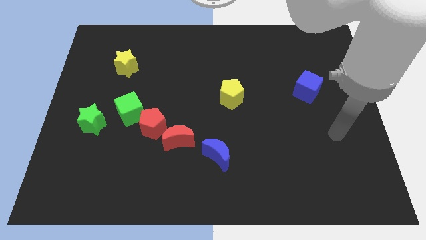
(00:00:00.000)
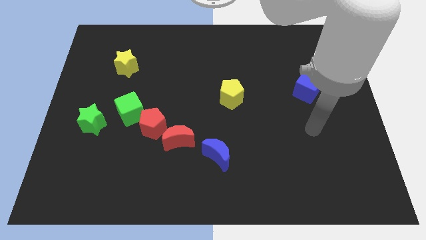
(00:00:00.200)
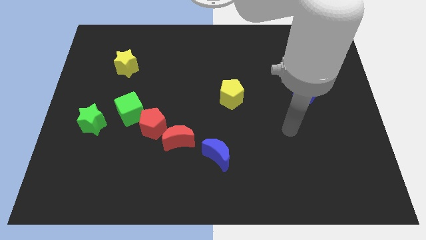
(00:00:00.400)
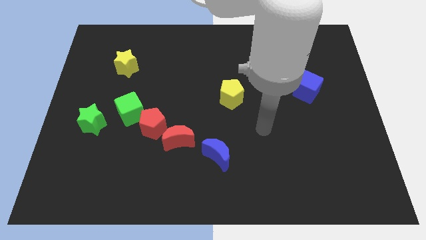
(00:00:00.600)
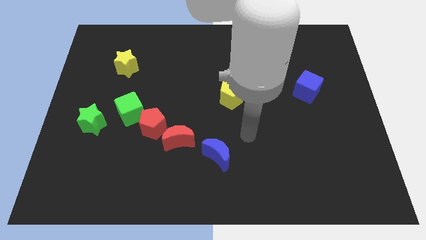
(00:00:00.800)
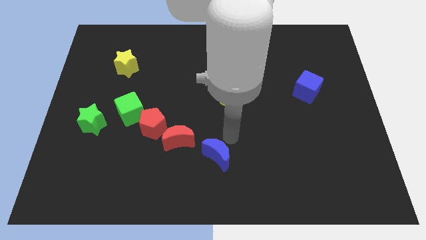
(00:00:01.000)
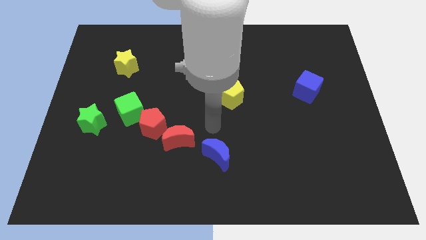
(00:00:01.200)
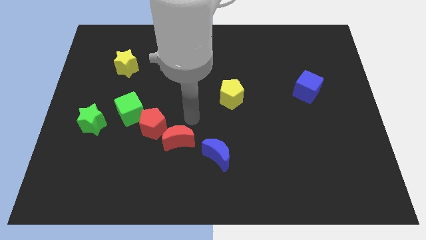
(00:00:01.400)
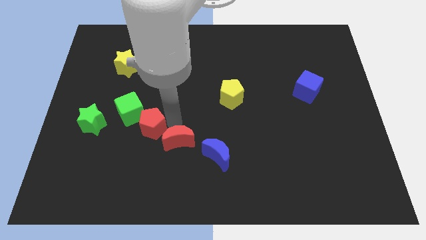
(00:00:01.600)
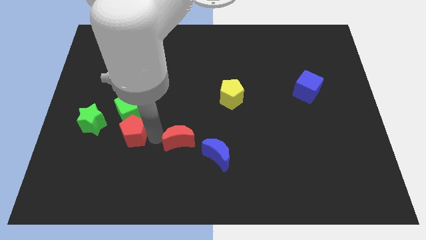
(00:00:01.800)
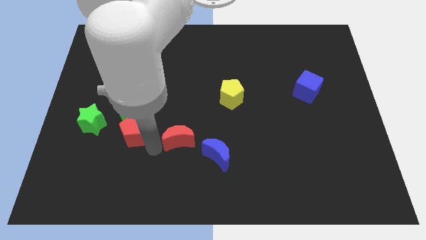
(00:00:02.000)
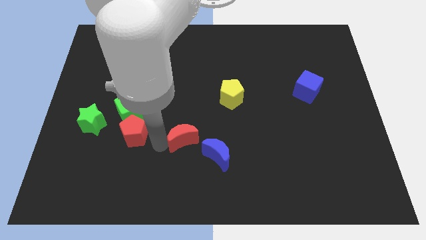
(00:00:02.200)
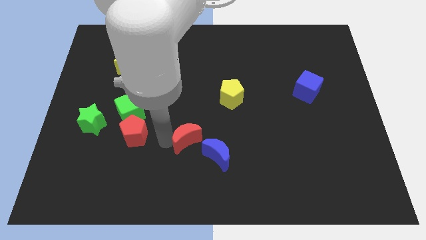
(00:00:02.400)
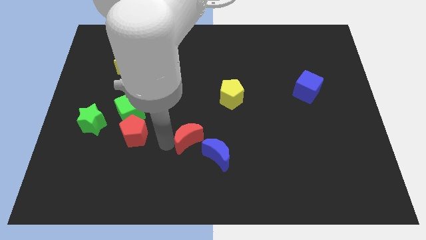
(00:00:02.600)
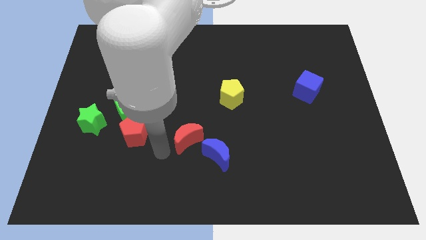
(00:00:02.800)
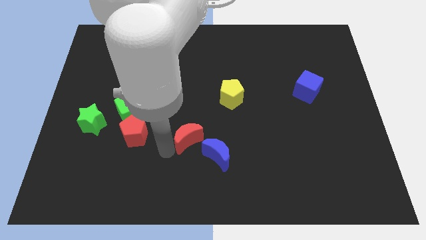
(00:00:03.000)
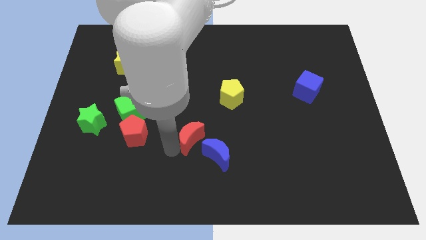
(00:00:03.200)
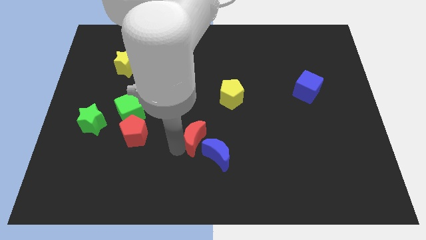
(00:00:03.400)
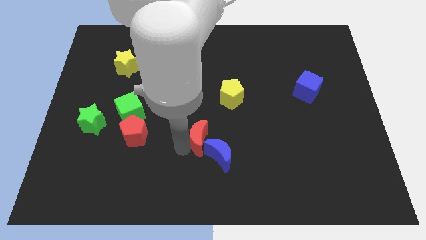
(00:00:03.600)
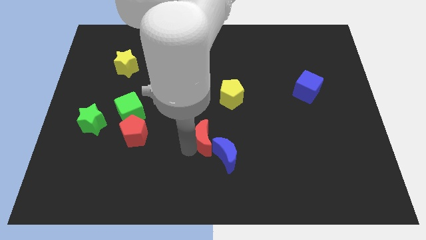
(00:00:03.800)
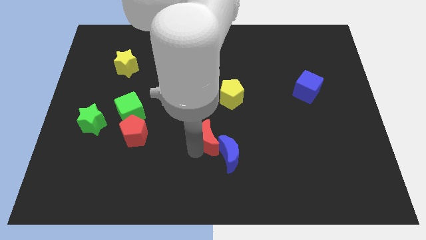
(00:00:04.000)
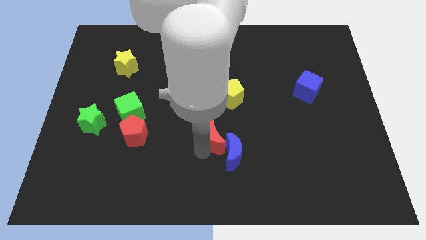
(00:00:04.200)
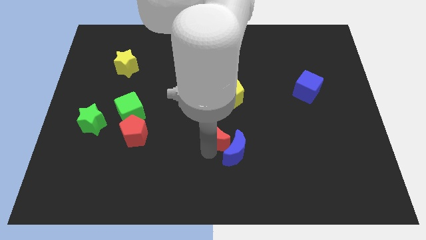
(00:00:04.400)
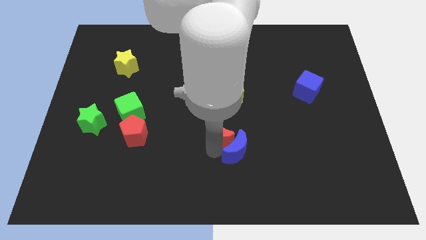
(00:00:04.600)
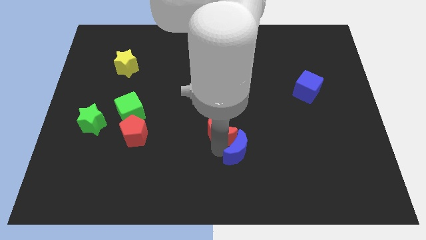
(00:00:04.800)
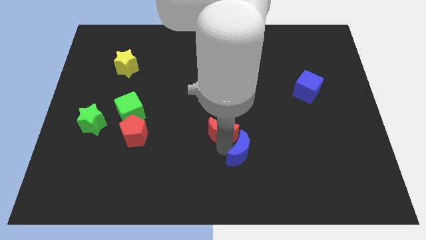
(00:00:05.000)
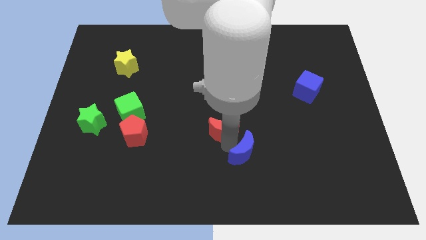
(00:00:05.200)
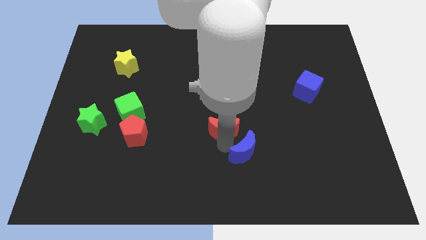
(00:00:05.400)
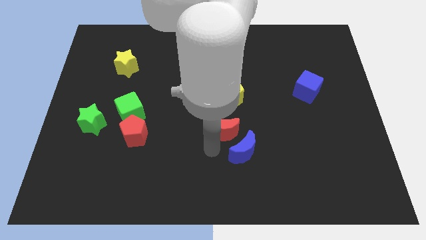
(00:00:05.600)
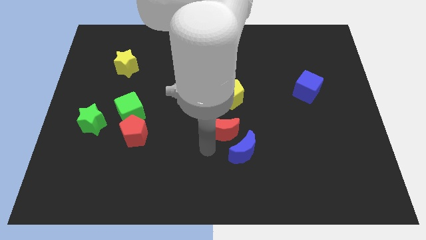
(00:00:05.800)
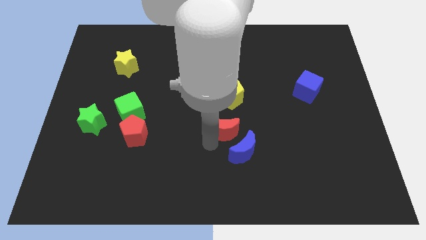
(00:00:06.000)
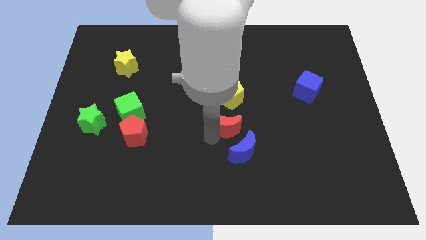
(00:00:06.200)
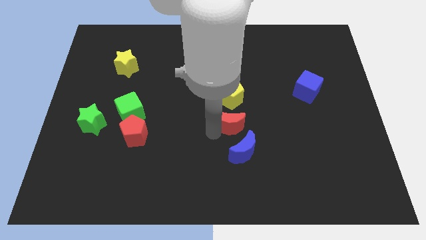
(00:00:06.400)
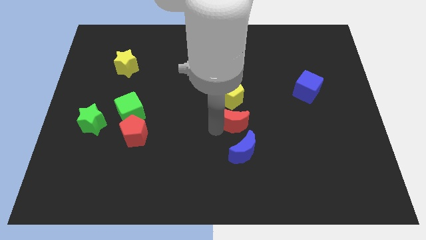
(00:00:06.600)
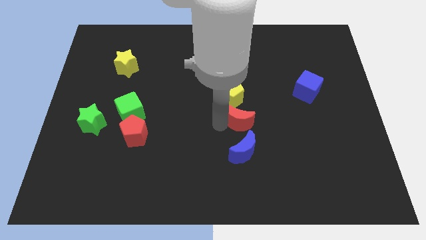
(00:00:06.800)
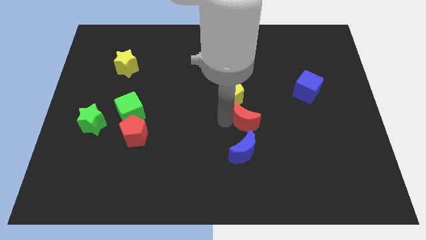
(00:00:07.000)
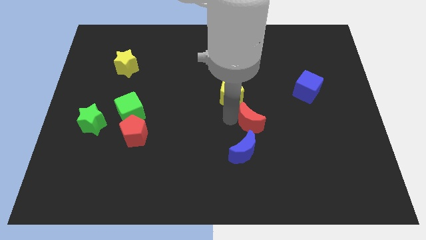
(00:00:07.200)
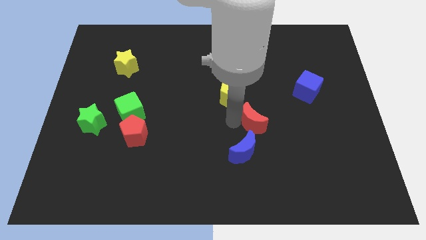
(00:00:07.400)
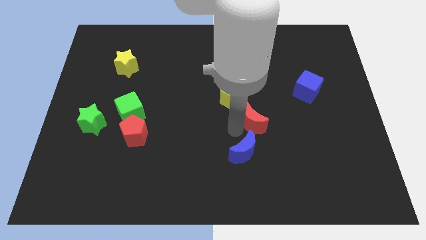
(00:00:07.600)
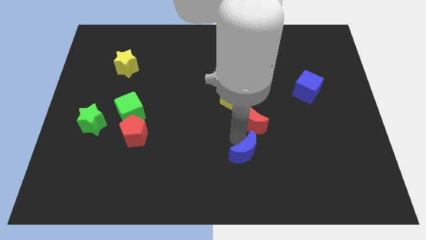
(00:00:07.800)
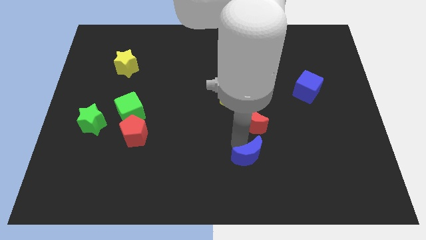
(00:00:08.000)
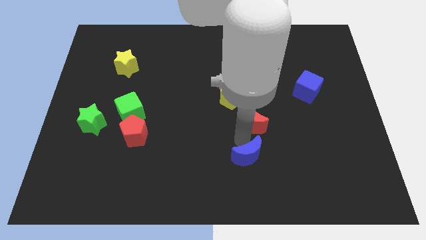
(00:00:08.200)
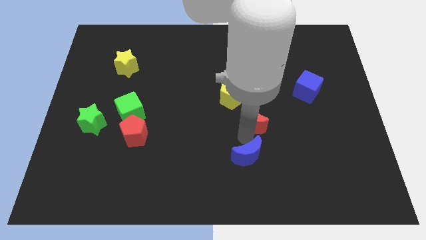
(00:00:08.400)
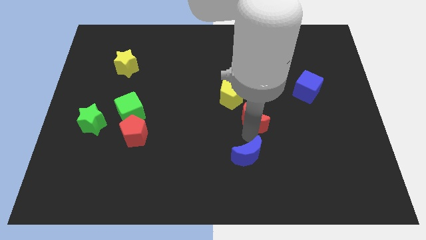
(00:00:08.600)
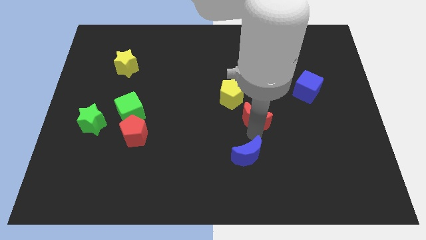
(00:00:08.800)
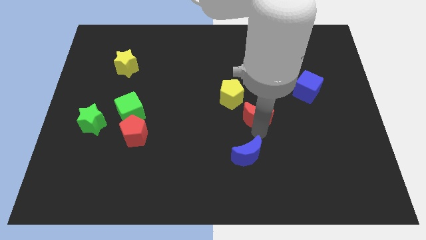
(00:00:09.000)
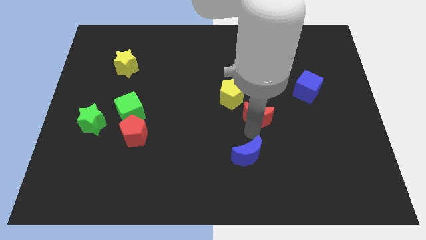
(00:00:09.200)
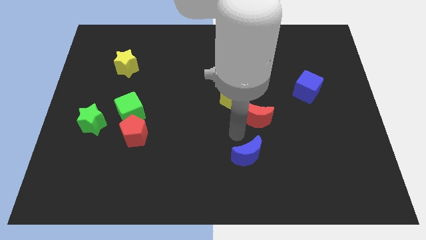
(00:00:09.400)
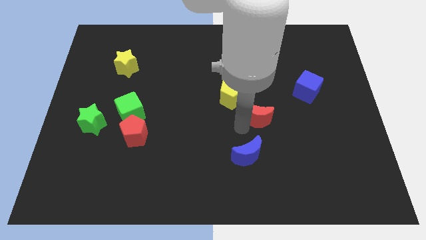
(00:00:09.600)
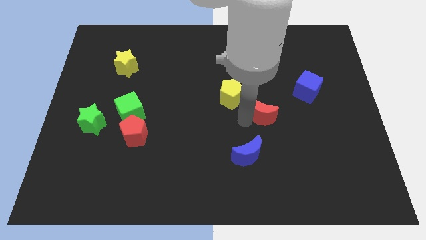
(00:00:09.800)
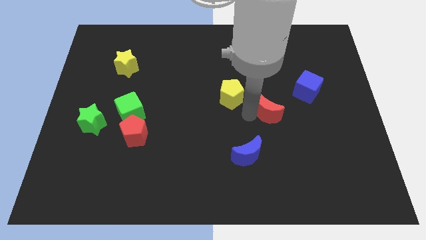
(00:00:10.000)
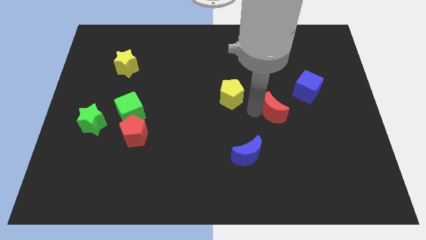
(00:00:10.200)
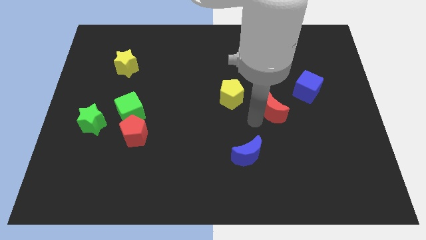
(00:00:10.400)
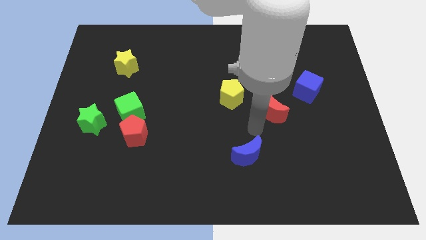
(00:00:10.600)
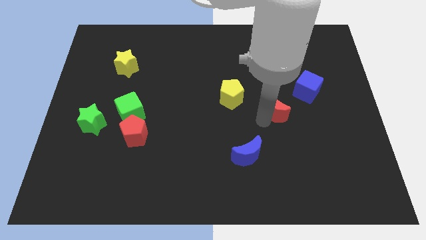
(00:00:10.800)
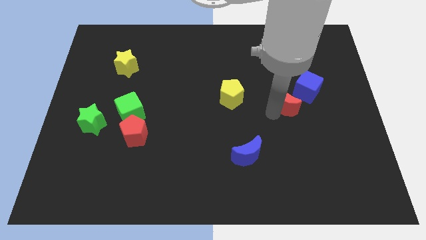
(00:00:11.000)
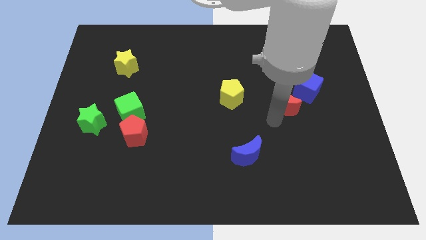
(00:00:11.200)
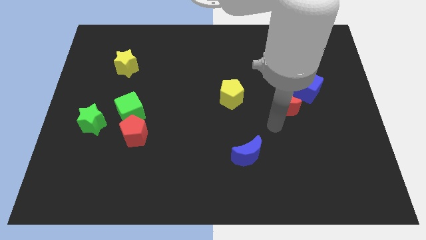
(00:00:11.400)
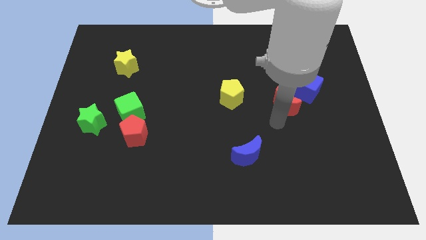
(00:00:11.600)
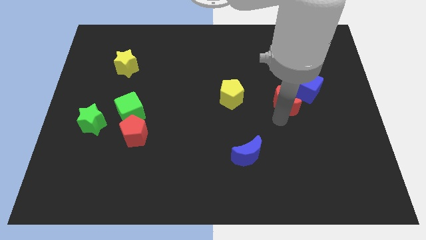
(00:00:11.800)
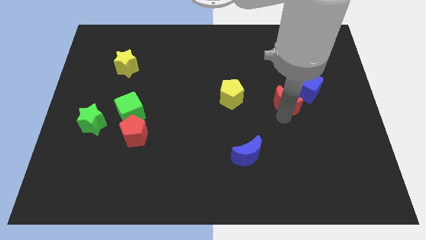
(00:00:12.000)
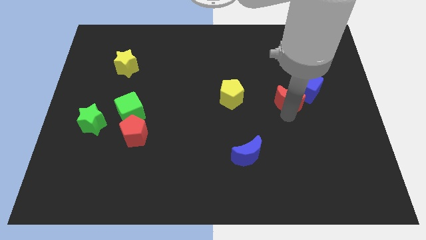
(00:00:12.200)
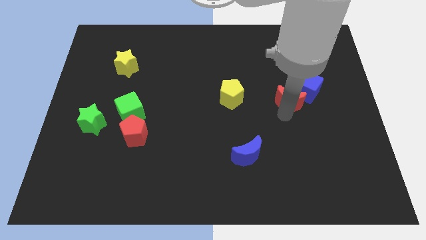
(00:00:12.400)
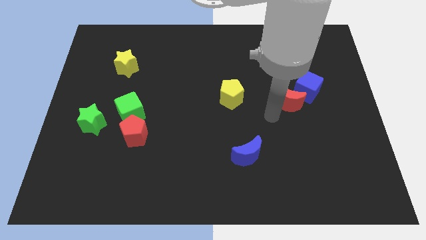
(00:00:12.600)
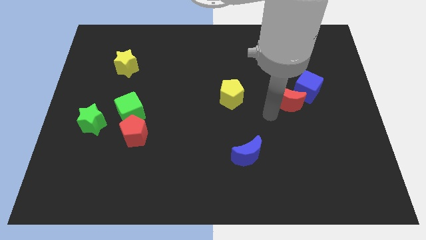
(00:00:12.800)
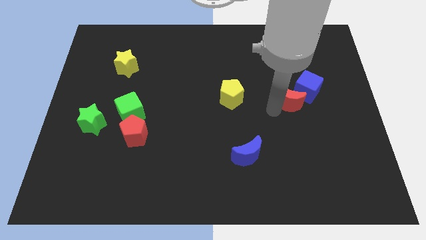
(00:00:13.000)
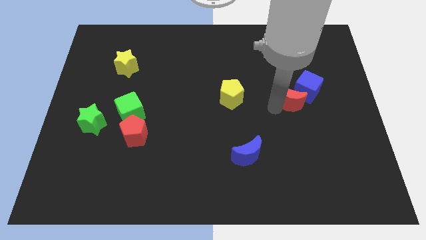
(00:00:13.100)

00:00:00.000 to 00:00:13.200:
move the red moon towards the blue cube
